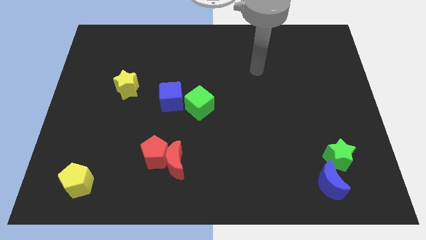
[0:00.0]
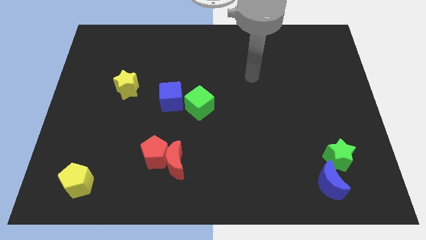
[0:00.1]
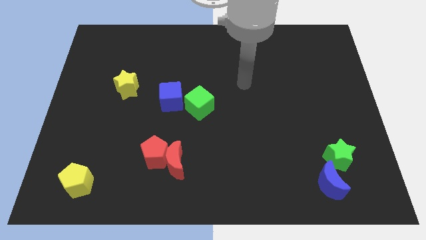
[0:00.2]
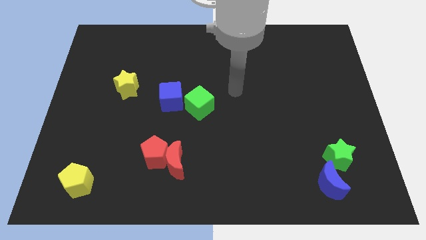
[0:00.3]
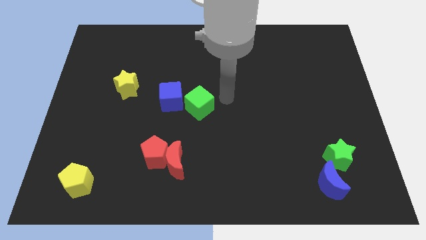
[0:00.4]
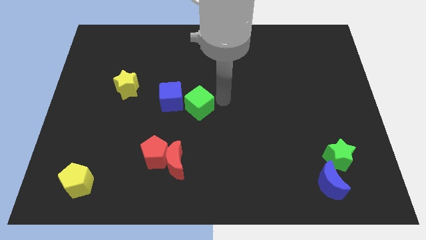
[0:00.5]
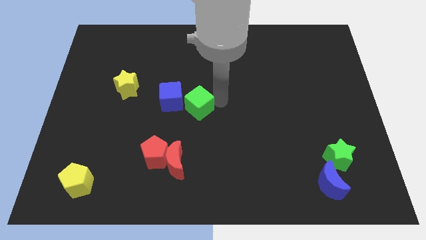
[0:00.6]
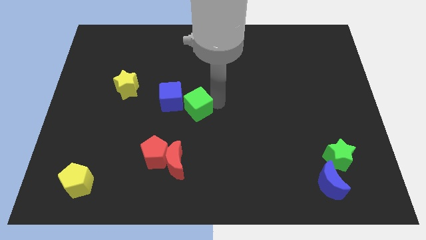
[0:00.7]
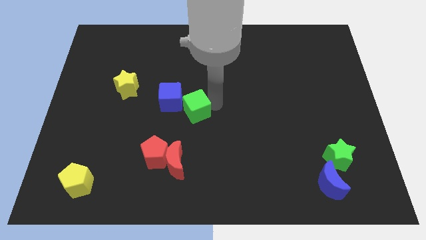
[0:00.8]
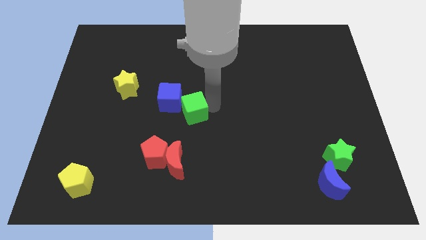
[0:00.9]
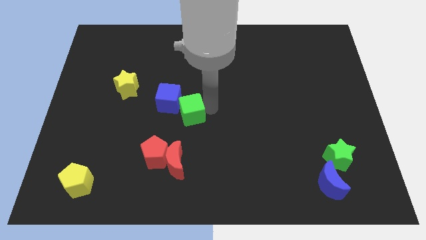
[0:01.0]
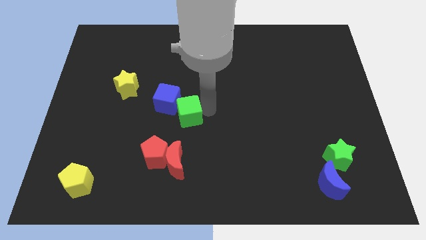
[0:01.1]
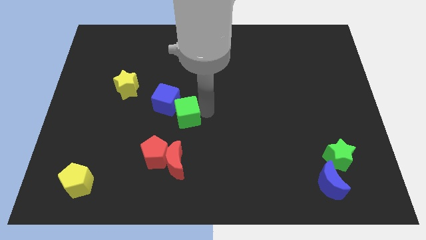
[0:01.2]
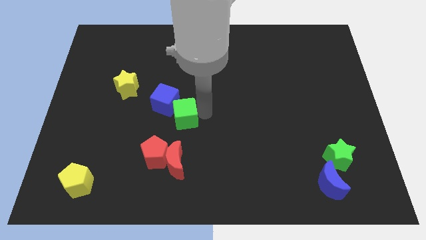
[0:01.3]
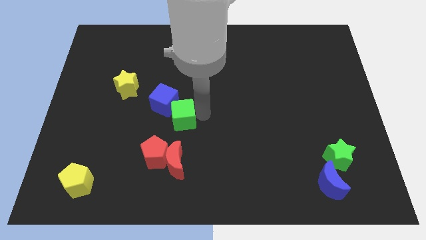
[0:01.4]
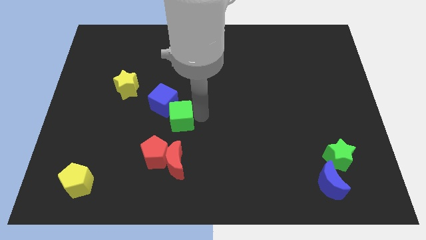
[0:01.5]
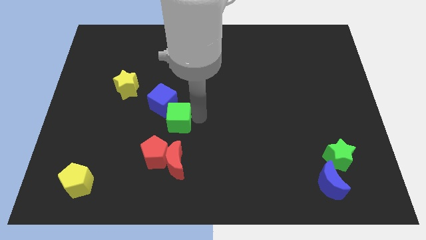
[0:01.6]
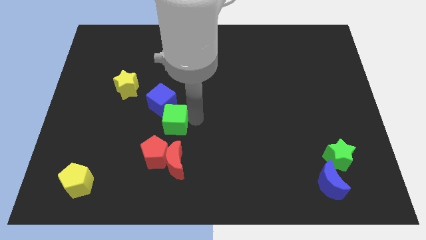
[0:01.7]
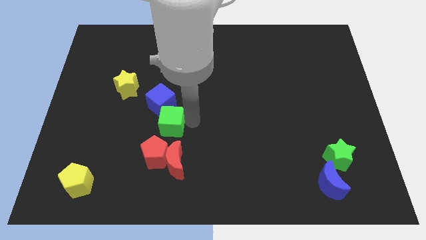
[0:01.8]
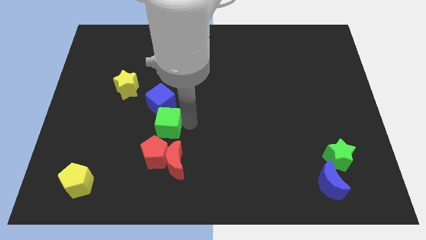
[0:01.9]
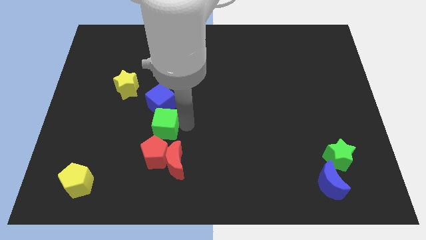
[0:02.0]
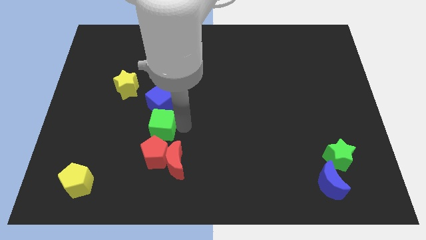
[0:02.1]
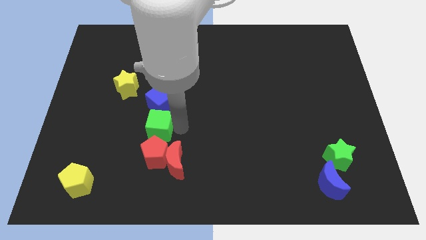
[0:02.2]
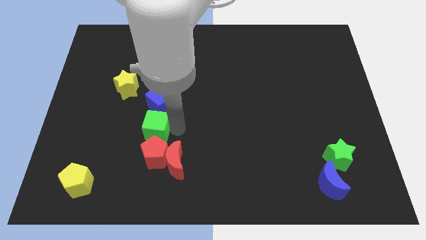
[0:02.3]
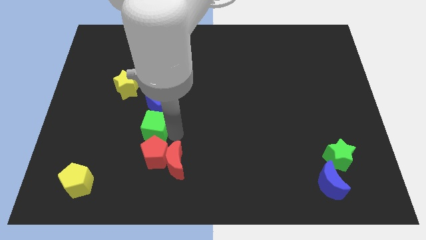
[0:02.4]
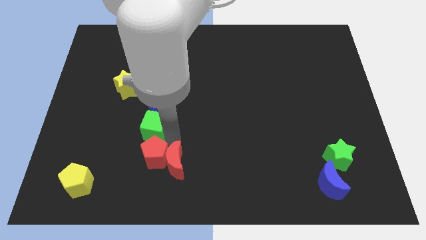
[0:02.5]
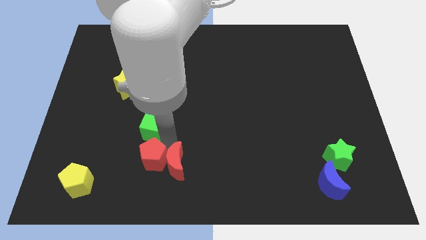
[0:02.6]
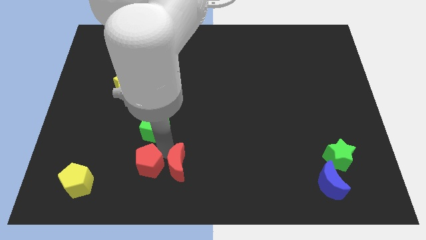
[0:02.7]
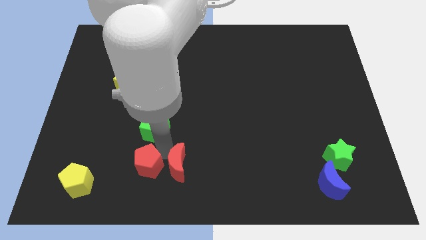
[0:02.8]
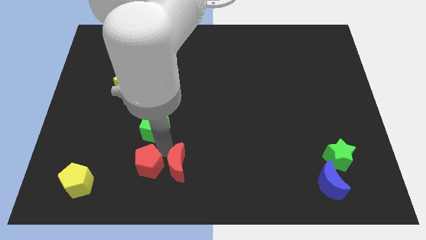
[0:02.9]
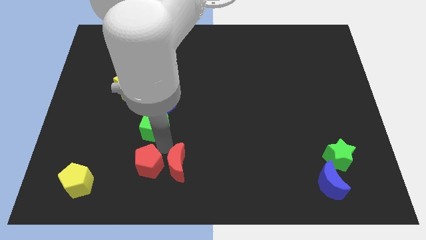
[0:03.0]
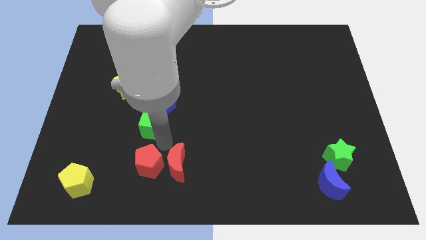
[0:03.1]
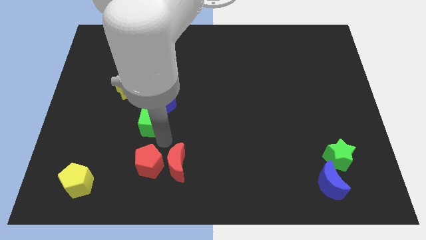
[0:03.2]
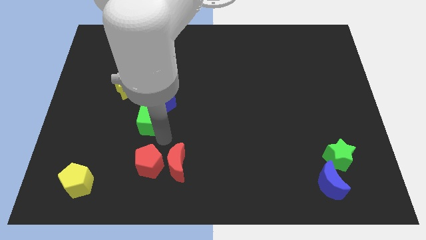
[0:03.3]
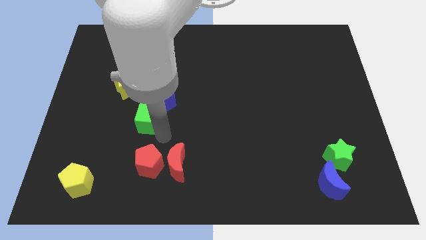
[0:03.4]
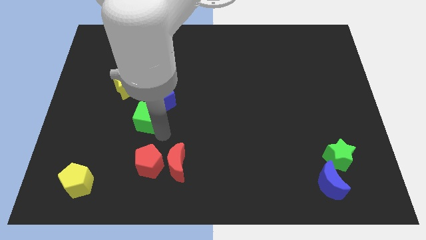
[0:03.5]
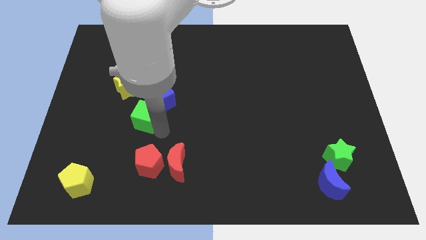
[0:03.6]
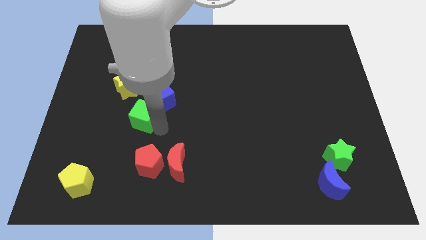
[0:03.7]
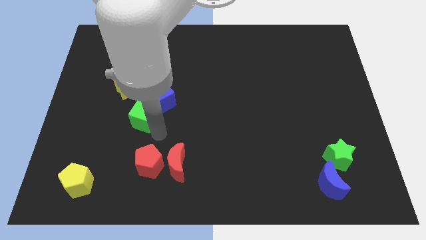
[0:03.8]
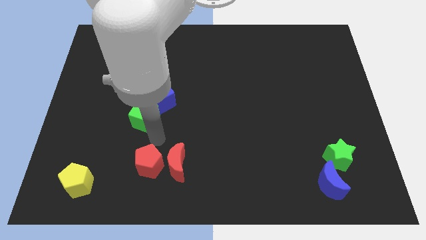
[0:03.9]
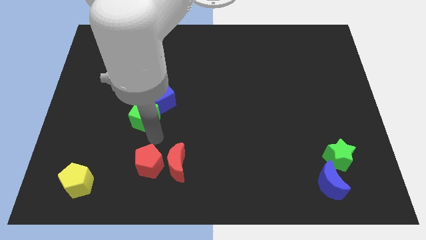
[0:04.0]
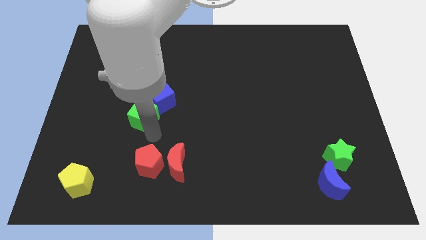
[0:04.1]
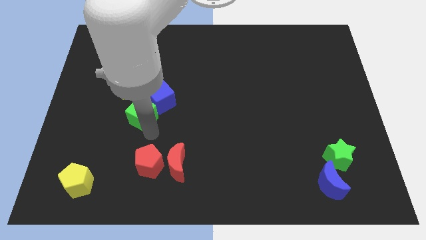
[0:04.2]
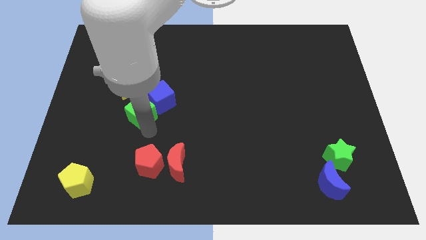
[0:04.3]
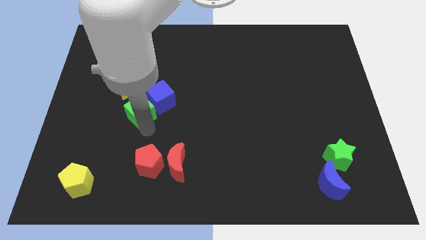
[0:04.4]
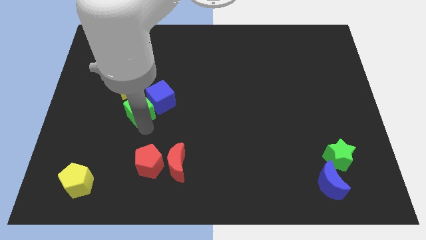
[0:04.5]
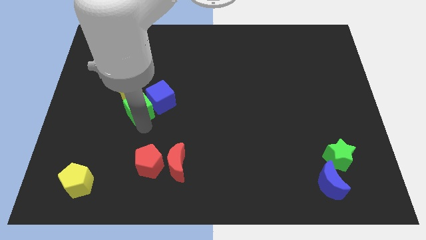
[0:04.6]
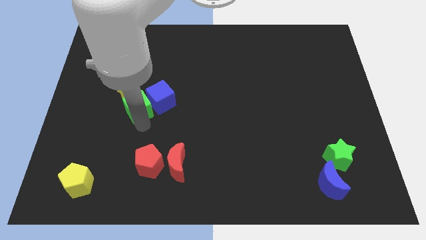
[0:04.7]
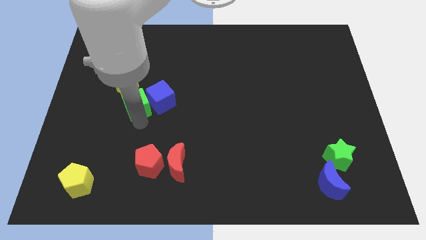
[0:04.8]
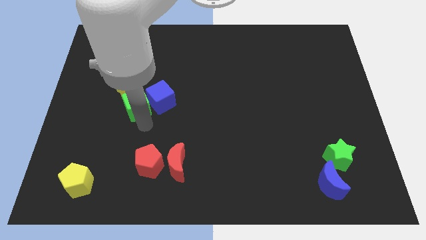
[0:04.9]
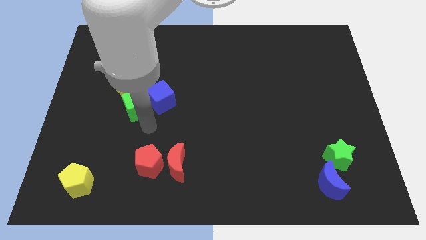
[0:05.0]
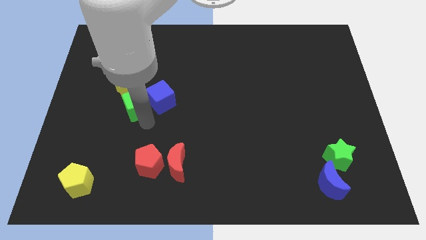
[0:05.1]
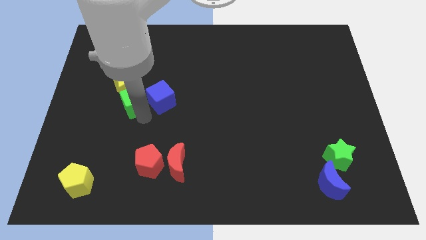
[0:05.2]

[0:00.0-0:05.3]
slide the green cube towards the yellow star

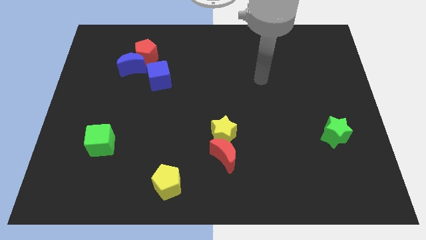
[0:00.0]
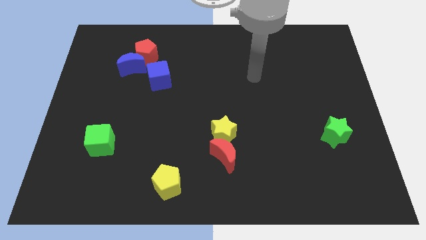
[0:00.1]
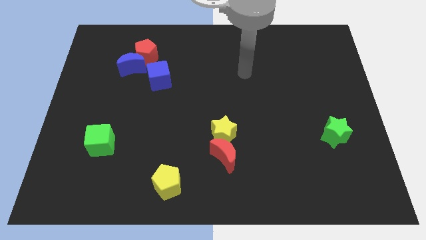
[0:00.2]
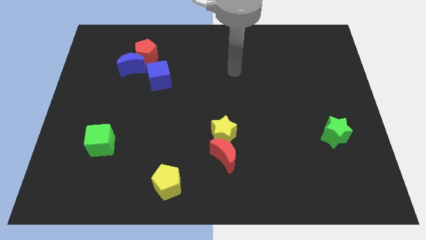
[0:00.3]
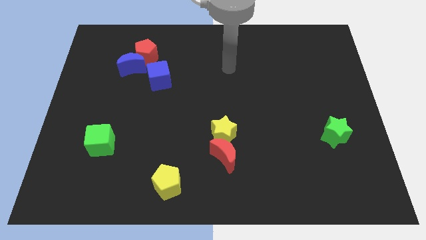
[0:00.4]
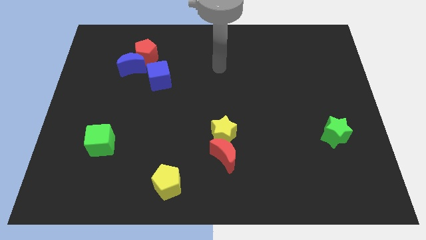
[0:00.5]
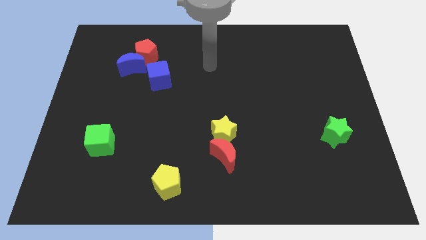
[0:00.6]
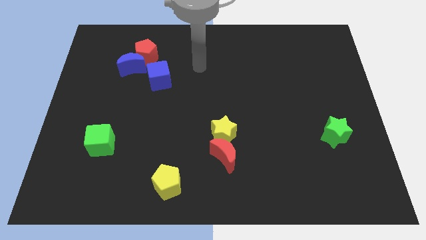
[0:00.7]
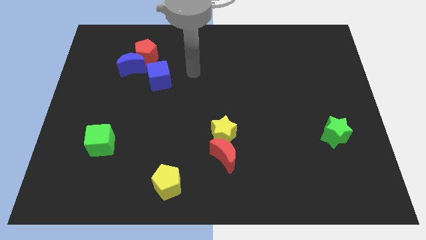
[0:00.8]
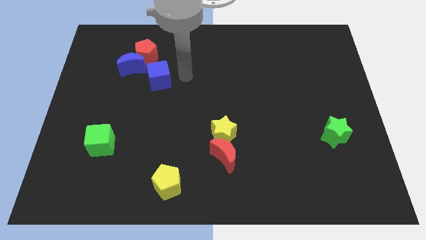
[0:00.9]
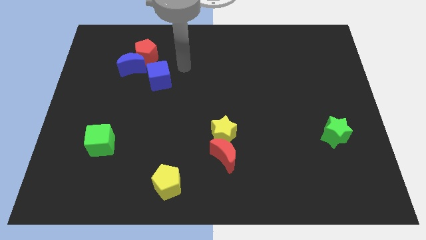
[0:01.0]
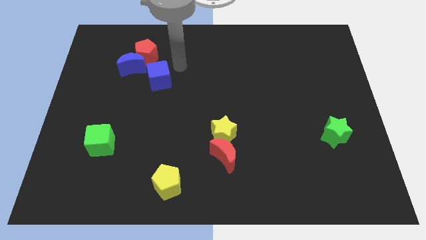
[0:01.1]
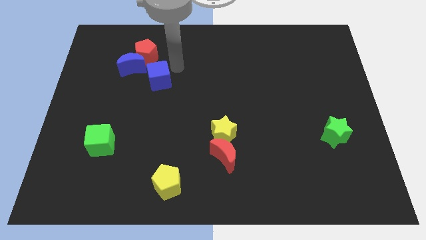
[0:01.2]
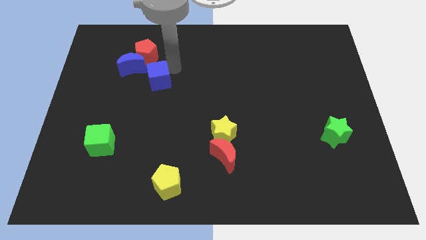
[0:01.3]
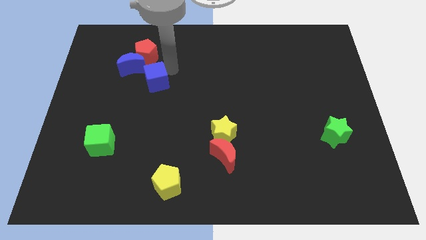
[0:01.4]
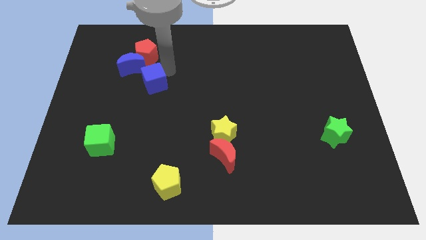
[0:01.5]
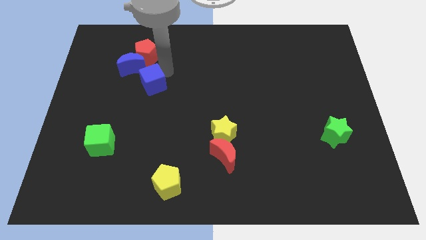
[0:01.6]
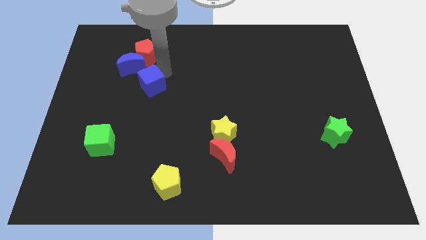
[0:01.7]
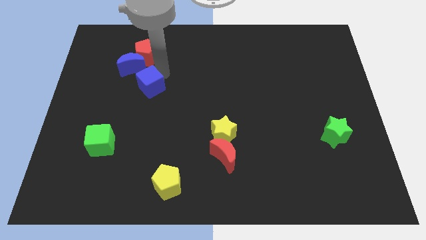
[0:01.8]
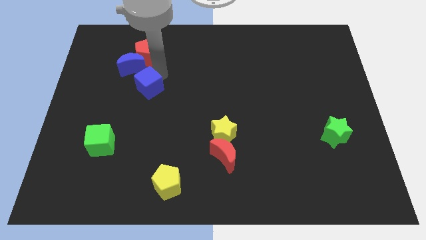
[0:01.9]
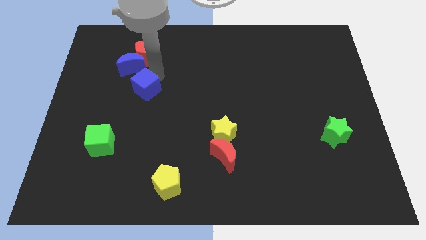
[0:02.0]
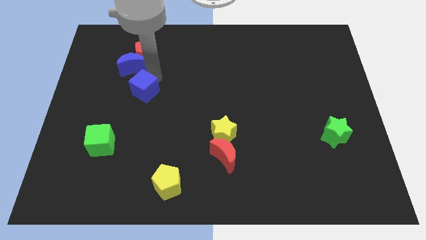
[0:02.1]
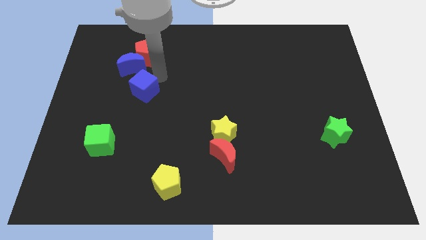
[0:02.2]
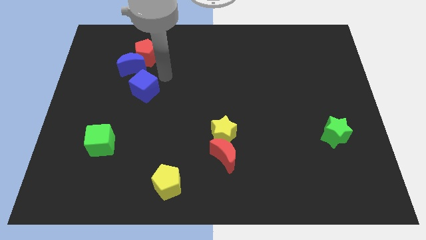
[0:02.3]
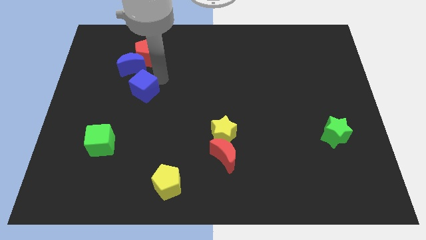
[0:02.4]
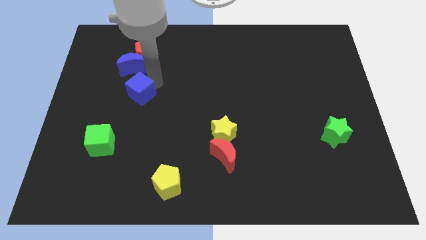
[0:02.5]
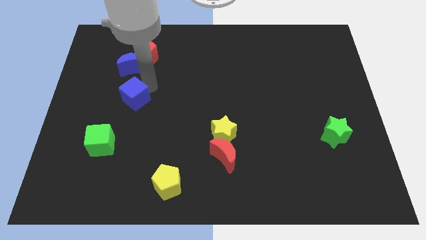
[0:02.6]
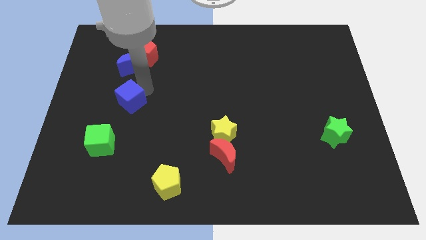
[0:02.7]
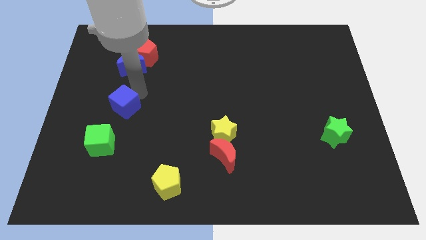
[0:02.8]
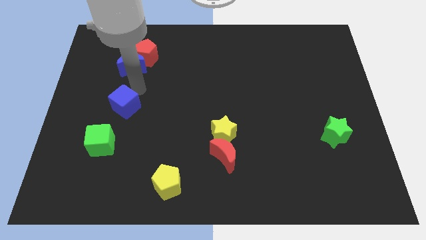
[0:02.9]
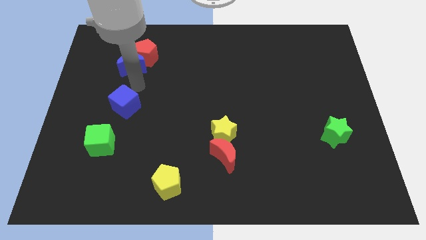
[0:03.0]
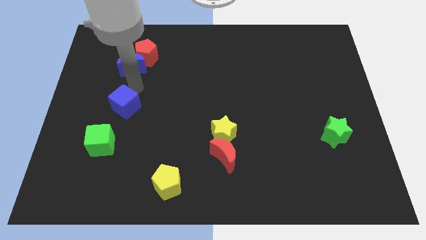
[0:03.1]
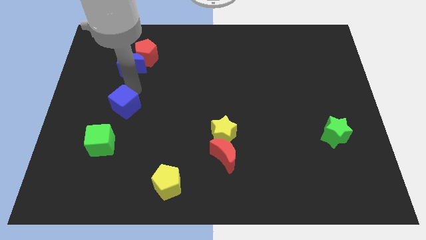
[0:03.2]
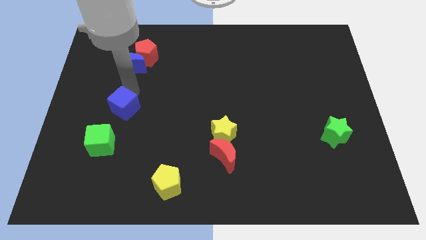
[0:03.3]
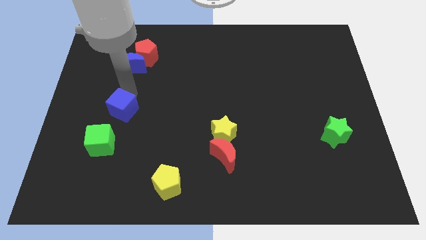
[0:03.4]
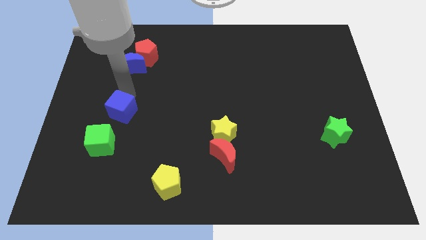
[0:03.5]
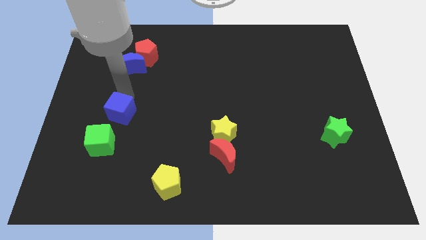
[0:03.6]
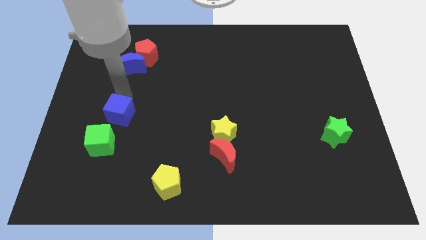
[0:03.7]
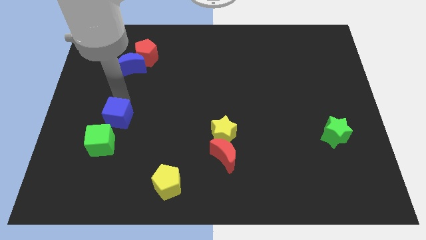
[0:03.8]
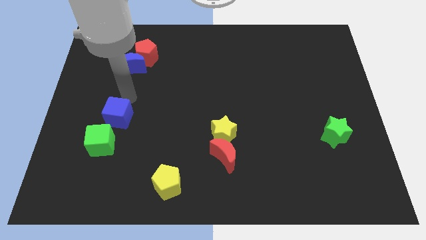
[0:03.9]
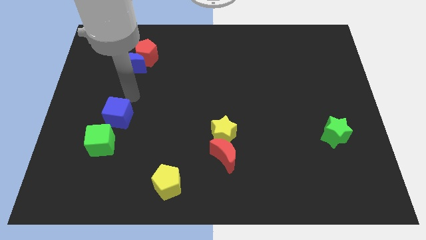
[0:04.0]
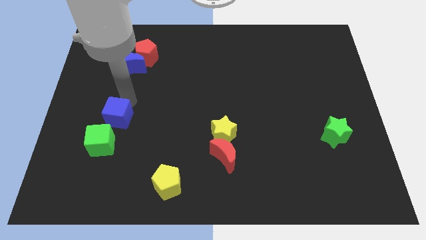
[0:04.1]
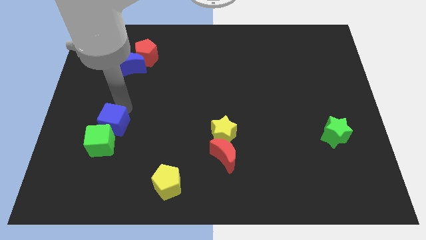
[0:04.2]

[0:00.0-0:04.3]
put the blue cube to the green cube
